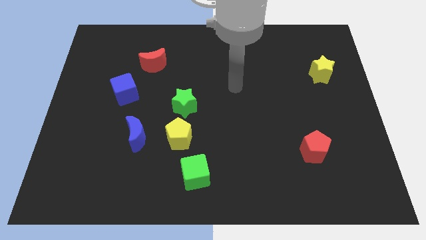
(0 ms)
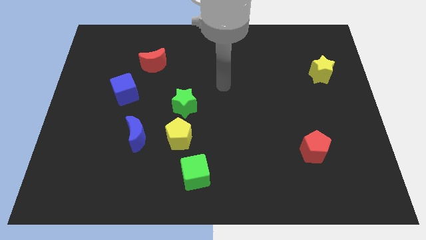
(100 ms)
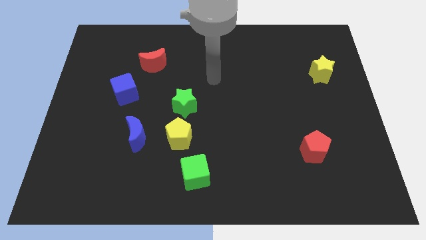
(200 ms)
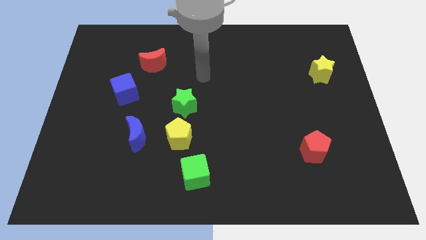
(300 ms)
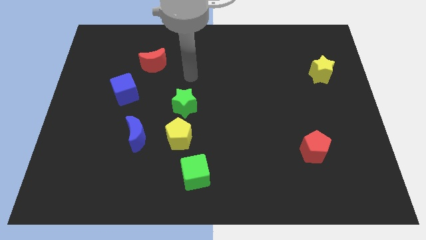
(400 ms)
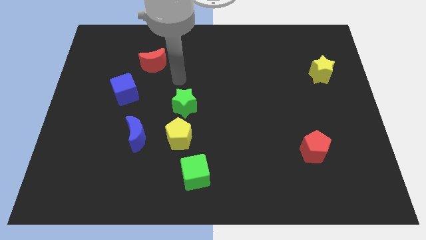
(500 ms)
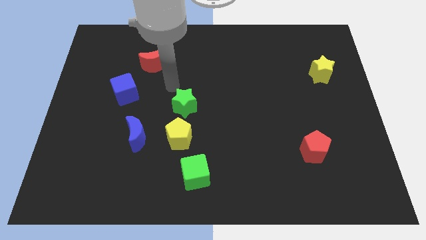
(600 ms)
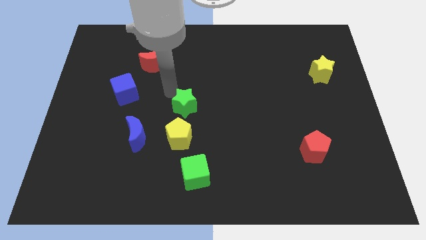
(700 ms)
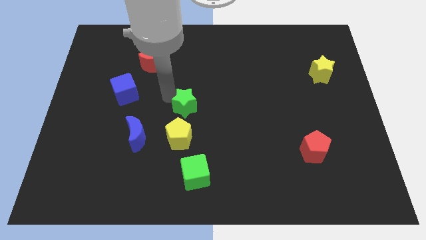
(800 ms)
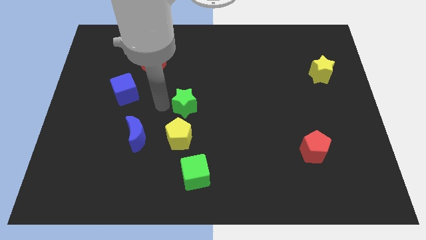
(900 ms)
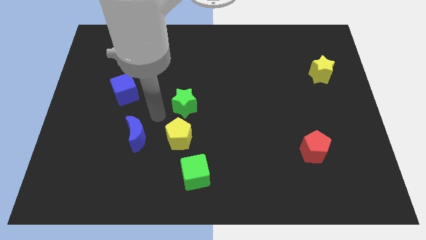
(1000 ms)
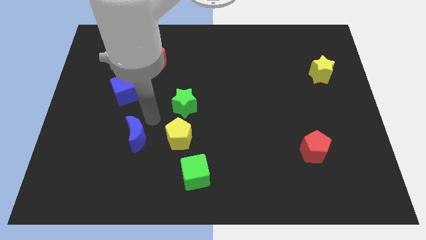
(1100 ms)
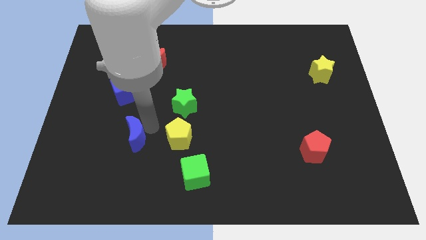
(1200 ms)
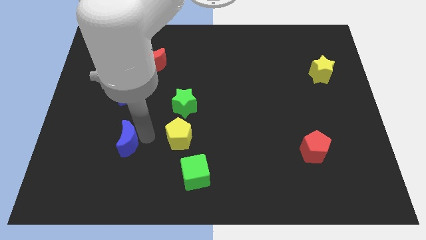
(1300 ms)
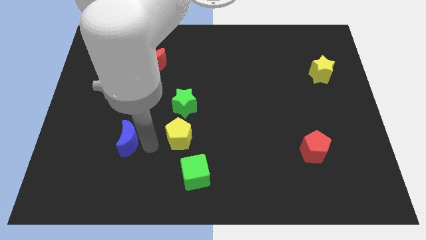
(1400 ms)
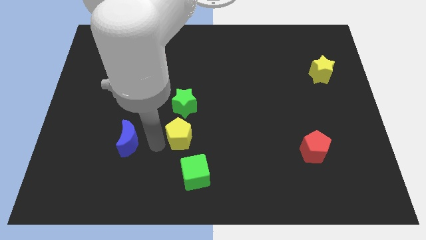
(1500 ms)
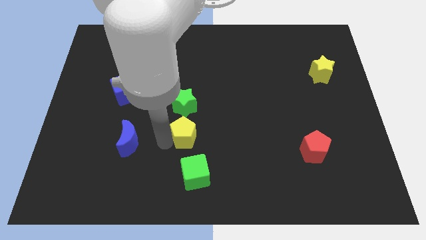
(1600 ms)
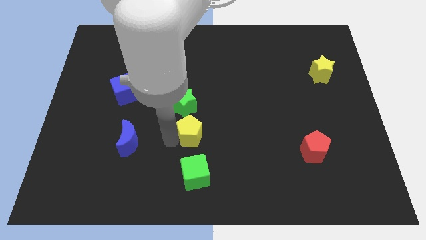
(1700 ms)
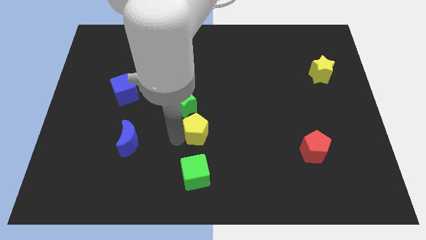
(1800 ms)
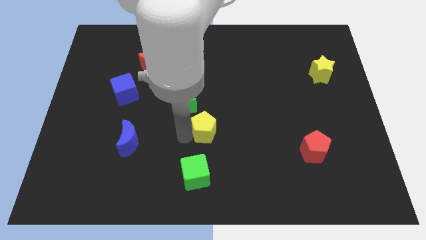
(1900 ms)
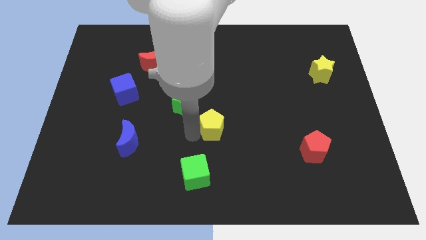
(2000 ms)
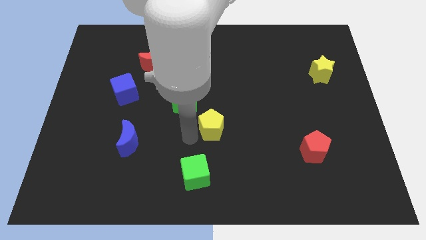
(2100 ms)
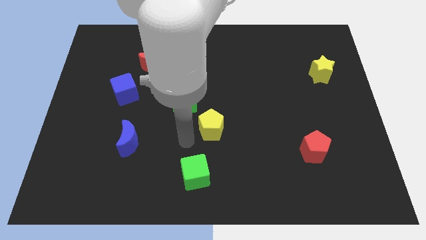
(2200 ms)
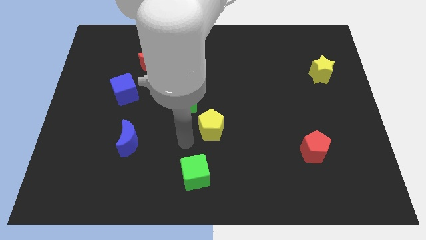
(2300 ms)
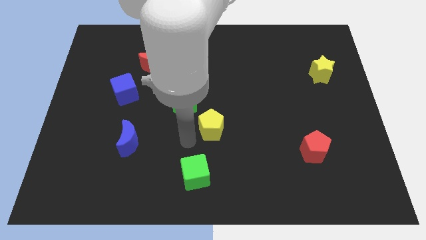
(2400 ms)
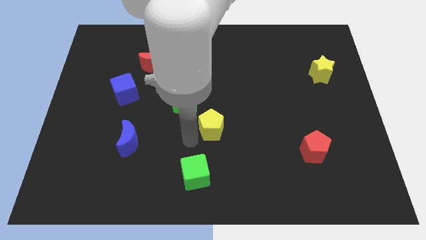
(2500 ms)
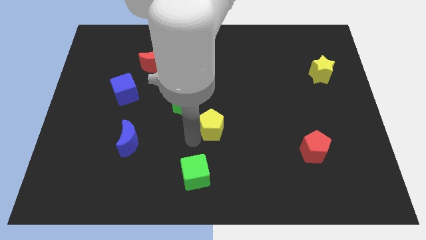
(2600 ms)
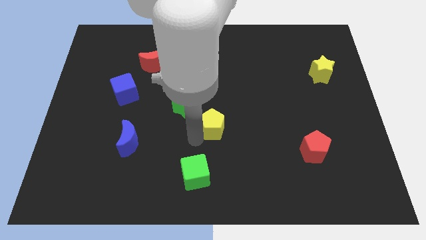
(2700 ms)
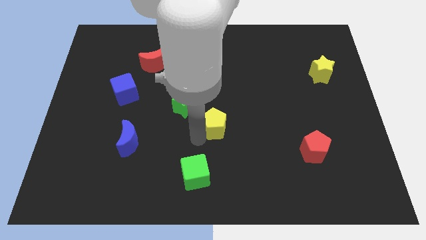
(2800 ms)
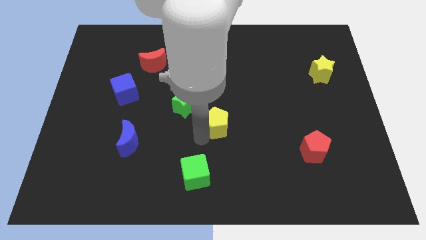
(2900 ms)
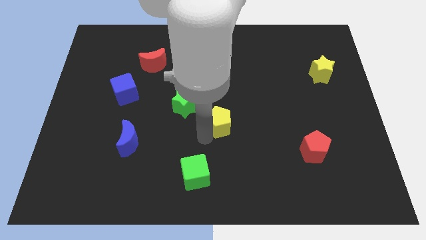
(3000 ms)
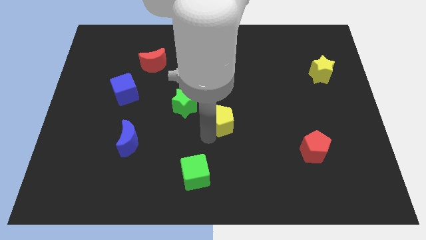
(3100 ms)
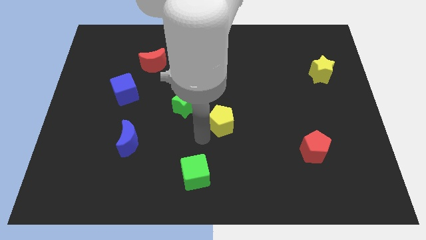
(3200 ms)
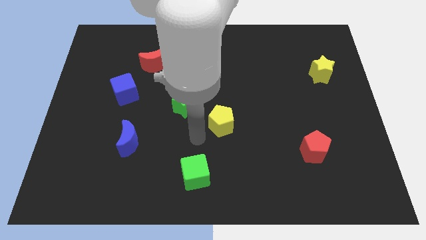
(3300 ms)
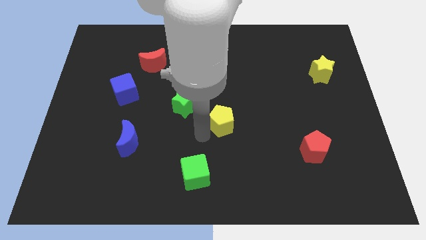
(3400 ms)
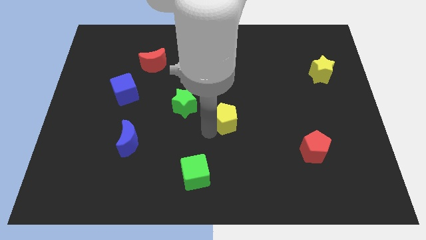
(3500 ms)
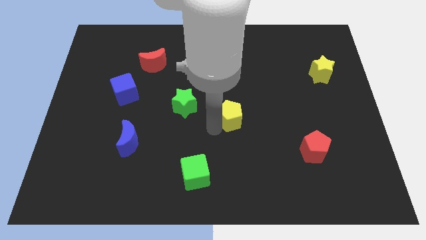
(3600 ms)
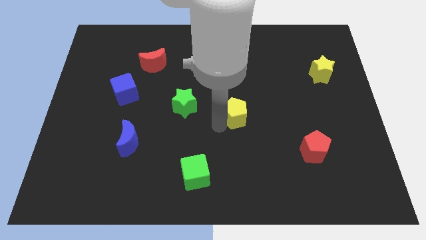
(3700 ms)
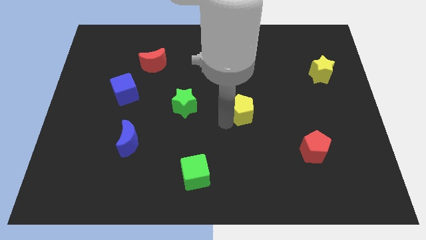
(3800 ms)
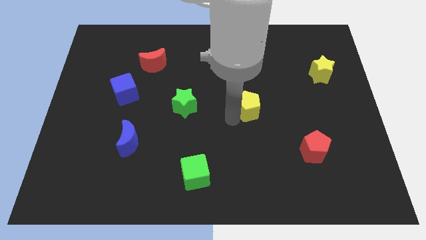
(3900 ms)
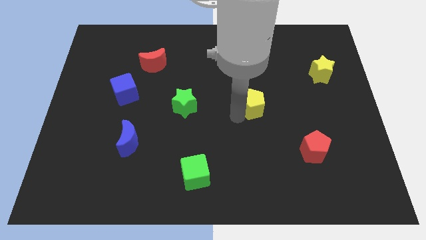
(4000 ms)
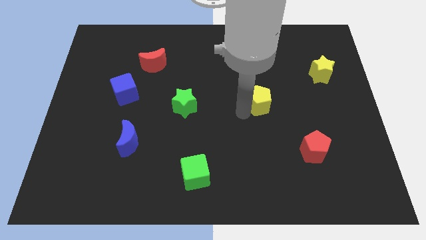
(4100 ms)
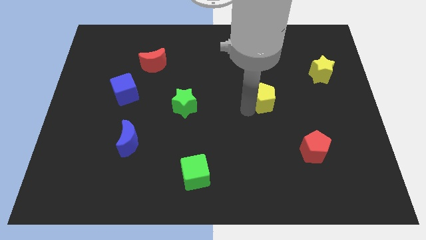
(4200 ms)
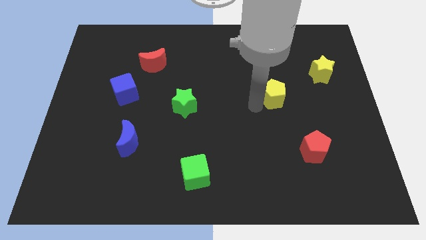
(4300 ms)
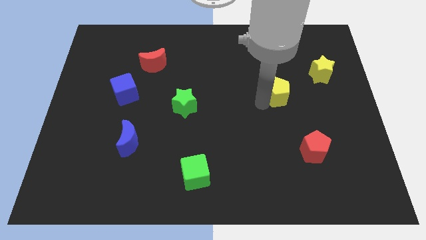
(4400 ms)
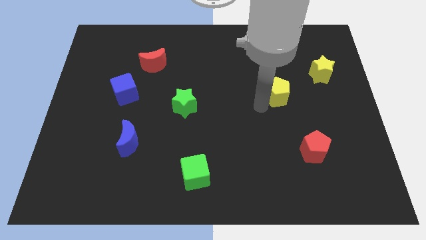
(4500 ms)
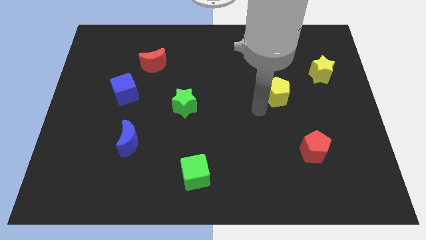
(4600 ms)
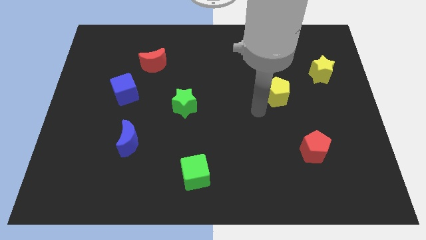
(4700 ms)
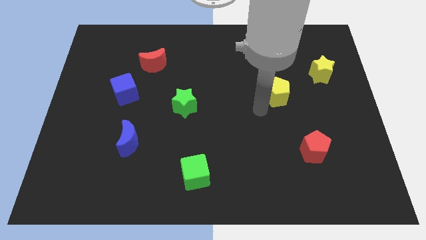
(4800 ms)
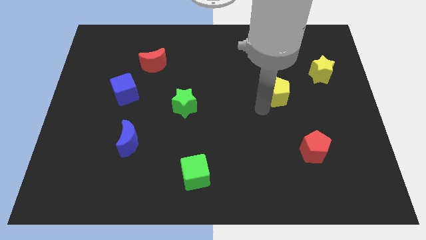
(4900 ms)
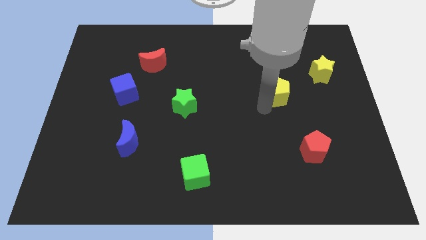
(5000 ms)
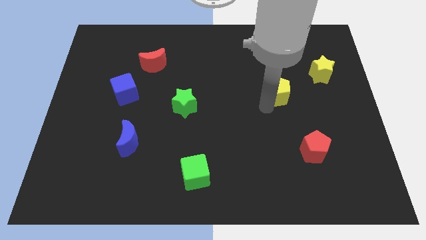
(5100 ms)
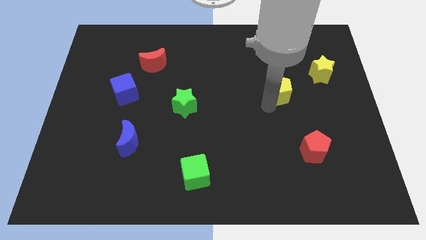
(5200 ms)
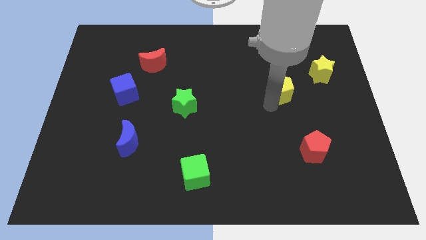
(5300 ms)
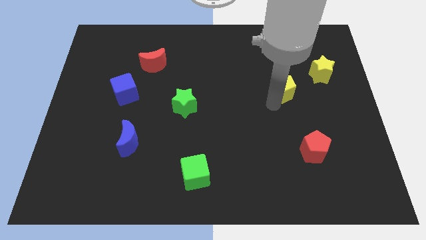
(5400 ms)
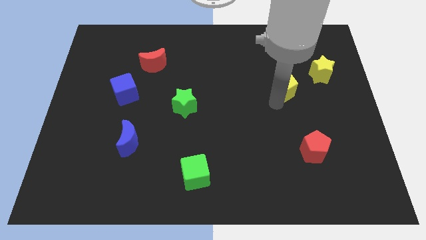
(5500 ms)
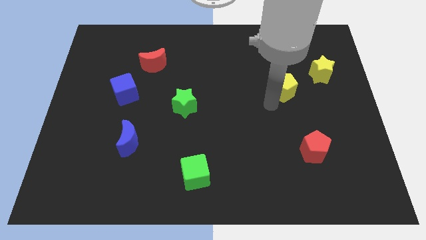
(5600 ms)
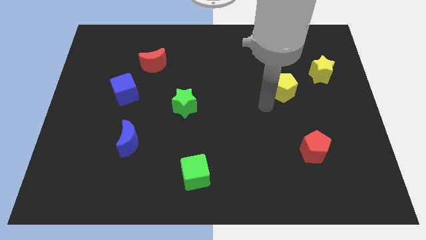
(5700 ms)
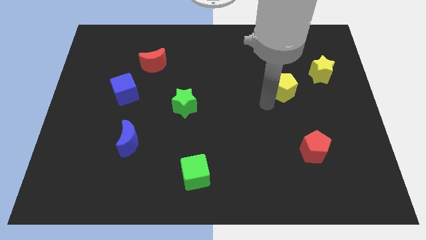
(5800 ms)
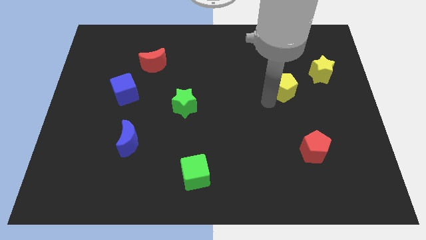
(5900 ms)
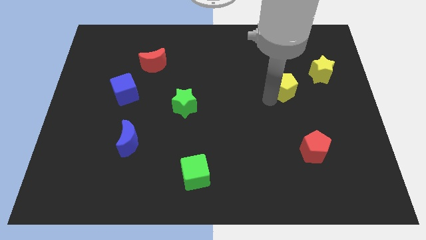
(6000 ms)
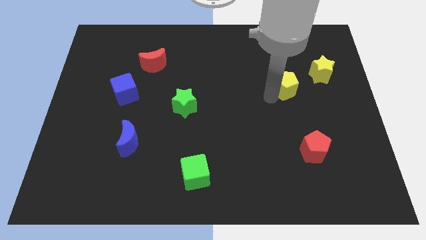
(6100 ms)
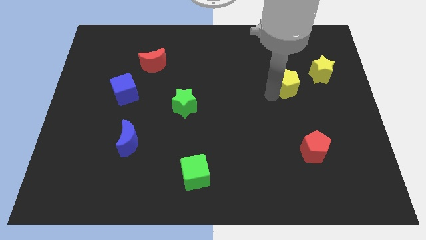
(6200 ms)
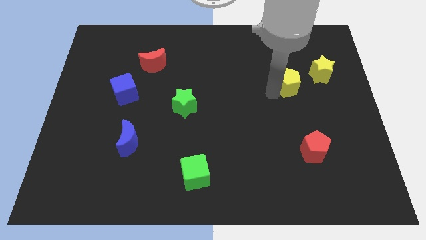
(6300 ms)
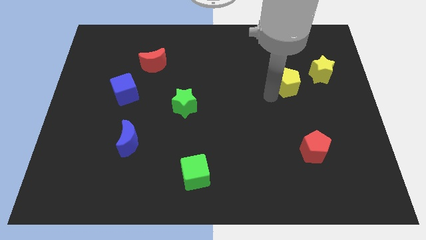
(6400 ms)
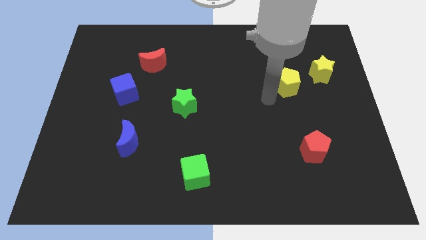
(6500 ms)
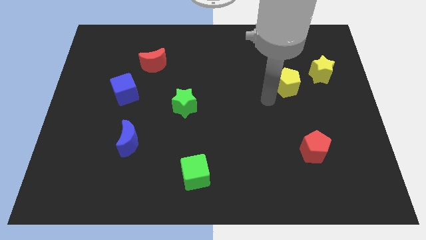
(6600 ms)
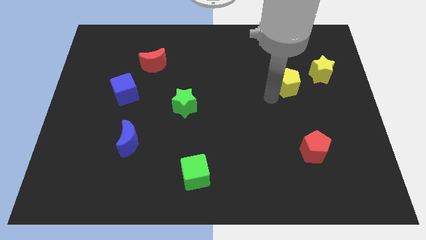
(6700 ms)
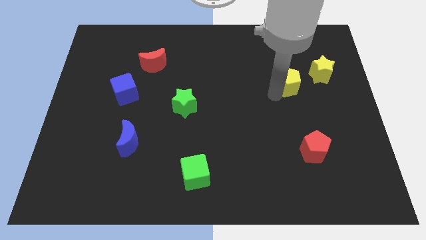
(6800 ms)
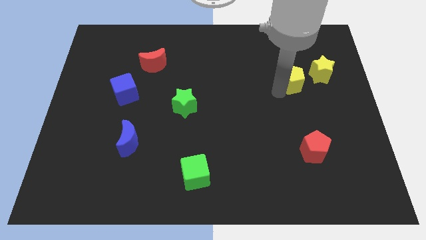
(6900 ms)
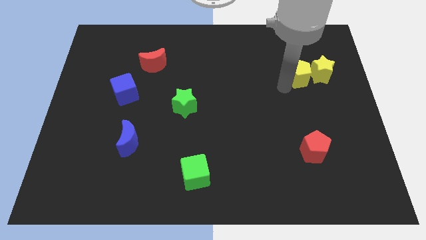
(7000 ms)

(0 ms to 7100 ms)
move the yellow pentagon towards the yellow star
